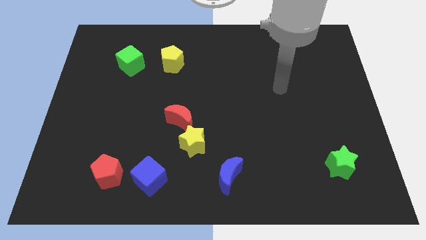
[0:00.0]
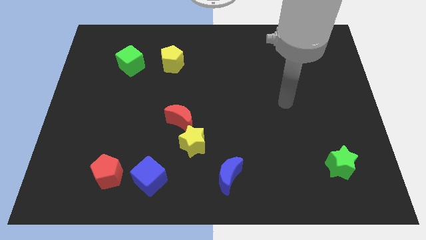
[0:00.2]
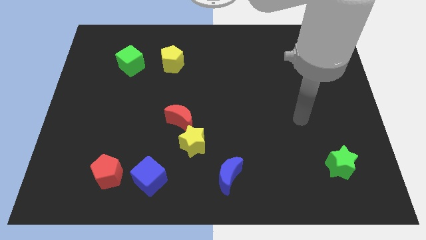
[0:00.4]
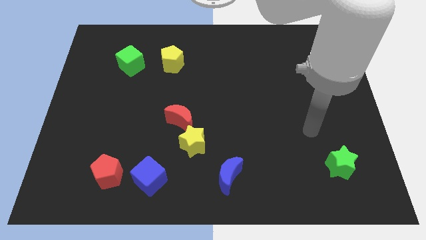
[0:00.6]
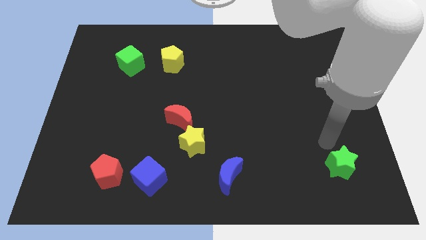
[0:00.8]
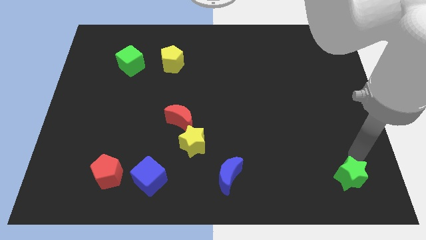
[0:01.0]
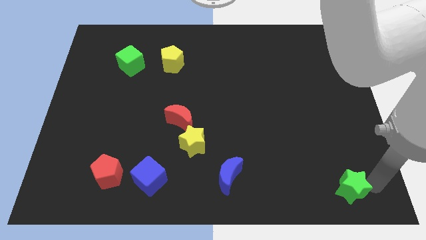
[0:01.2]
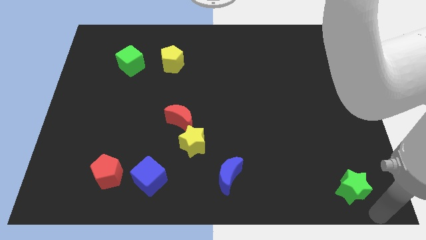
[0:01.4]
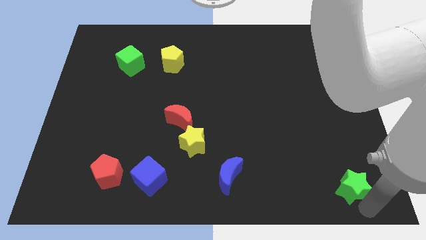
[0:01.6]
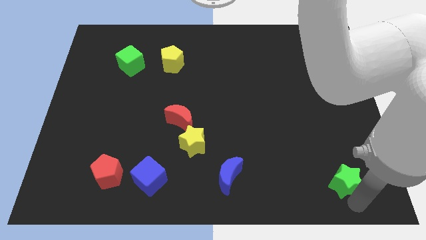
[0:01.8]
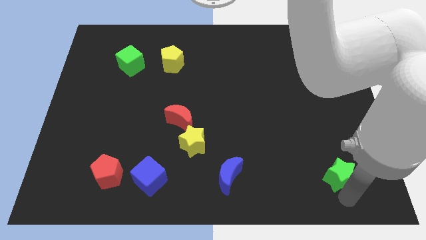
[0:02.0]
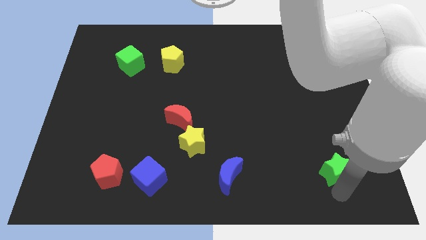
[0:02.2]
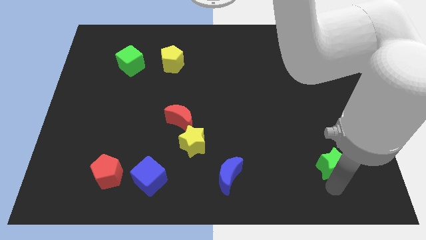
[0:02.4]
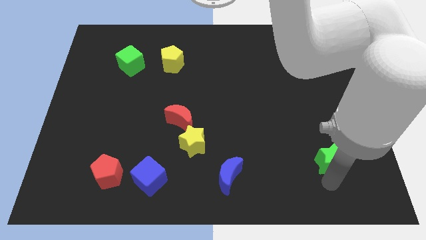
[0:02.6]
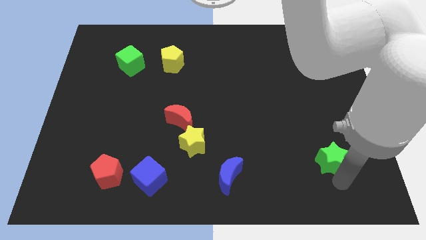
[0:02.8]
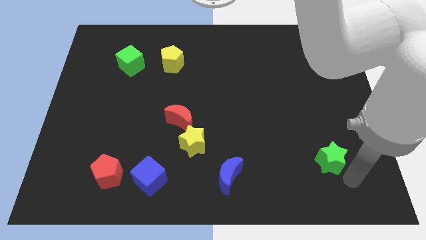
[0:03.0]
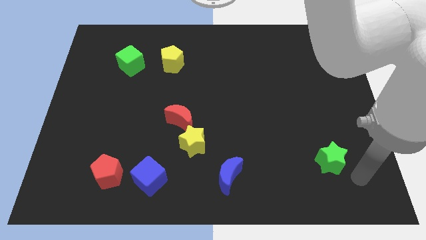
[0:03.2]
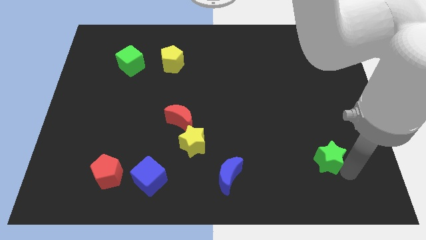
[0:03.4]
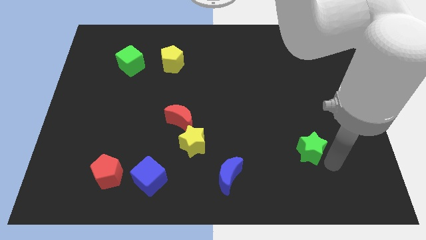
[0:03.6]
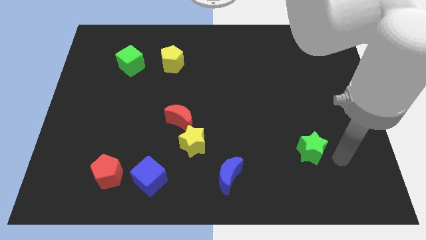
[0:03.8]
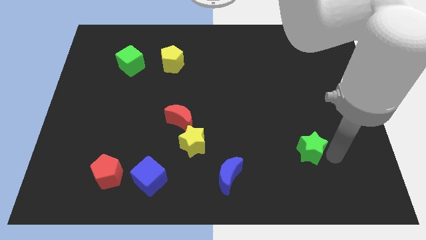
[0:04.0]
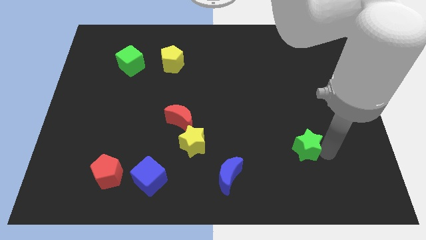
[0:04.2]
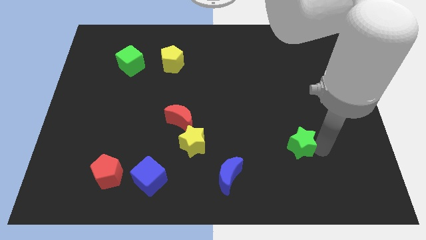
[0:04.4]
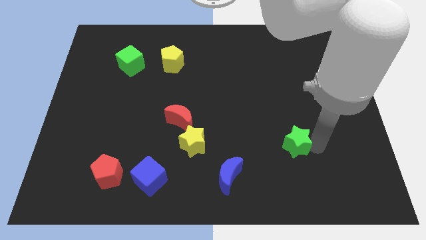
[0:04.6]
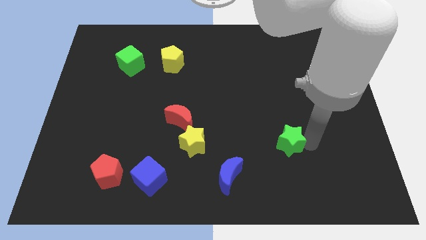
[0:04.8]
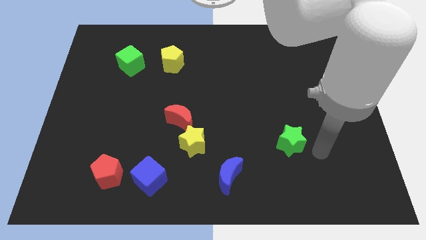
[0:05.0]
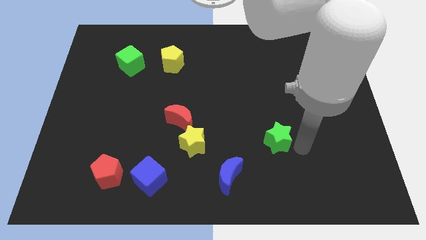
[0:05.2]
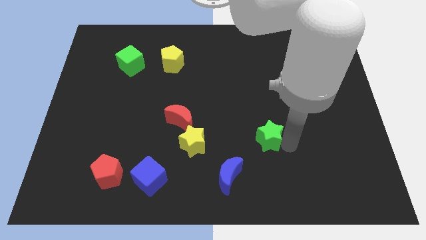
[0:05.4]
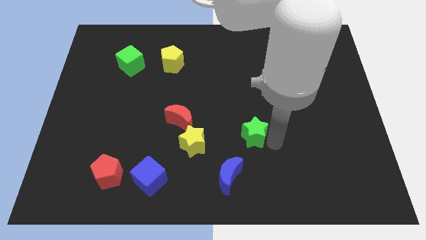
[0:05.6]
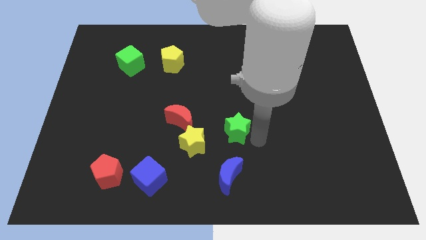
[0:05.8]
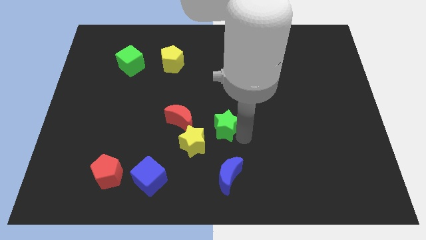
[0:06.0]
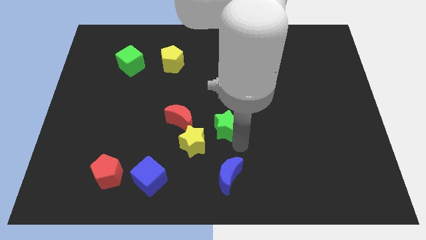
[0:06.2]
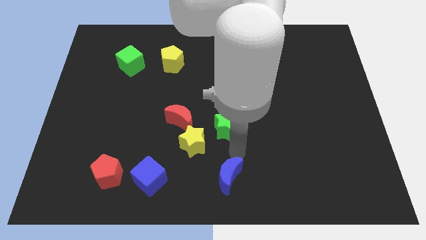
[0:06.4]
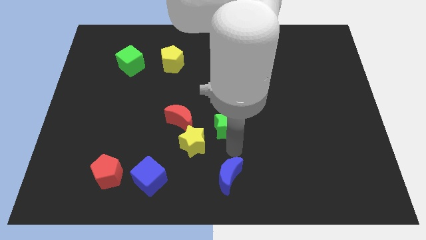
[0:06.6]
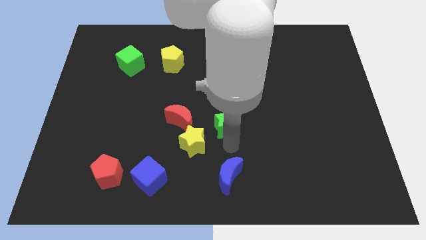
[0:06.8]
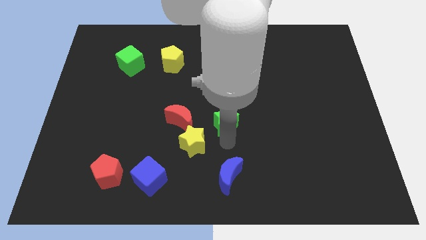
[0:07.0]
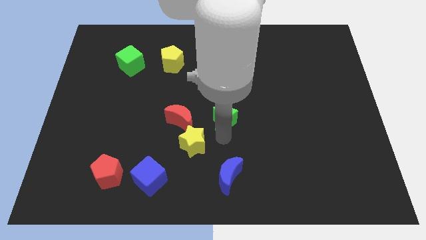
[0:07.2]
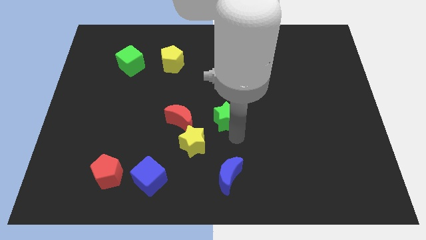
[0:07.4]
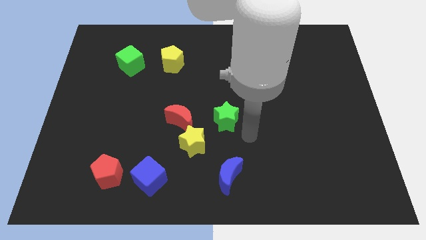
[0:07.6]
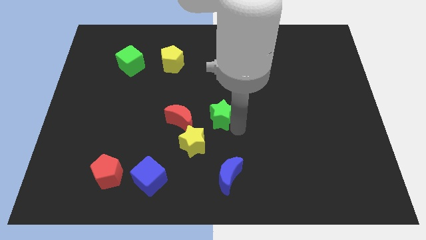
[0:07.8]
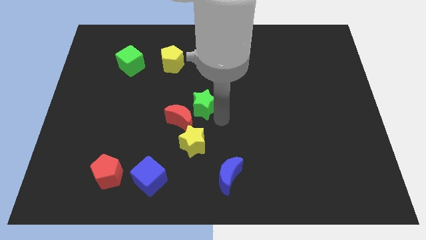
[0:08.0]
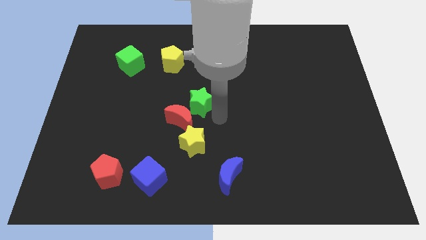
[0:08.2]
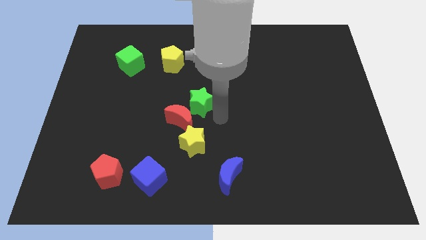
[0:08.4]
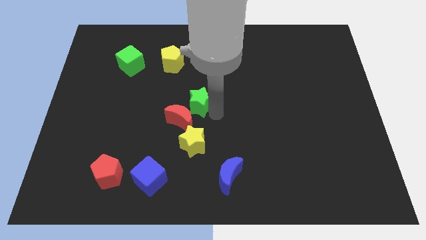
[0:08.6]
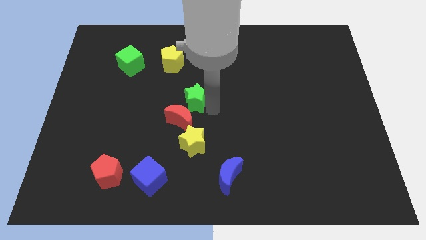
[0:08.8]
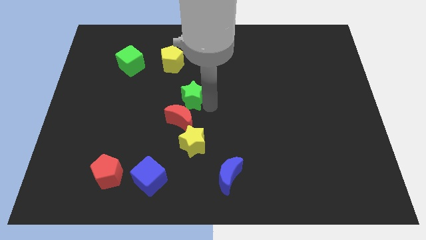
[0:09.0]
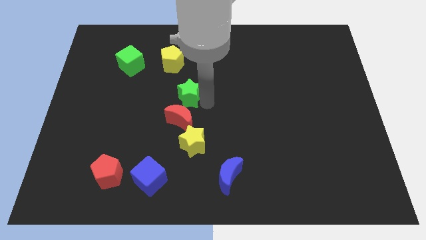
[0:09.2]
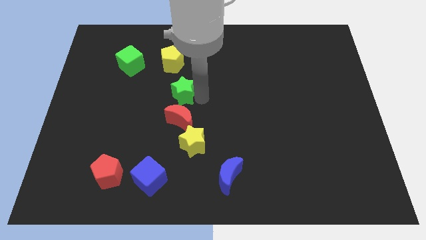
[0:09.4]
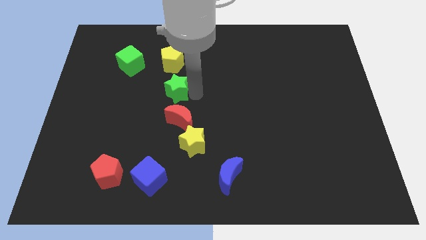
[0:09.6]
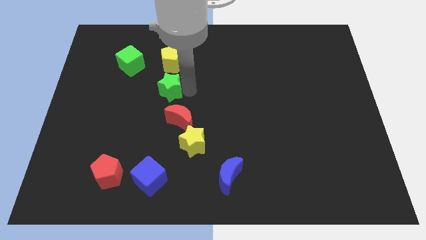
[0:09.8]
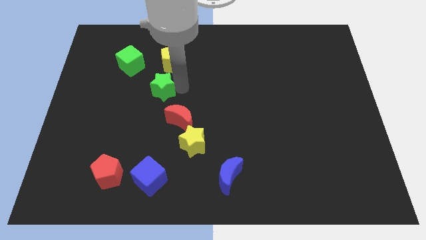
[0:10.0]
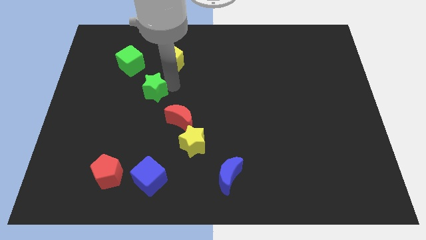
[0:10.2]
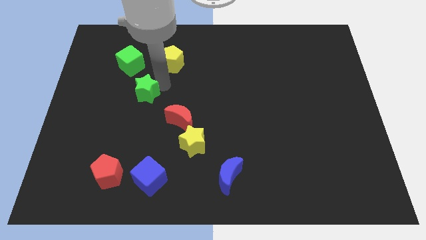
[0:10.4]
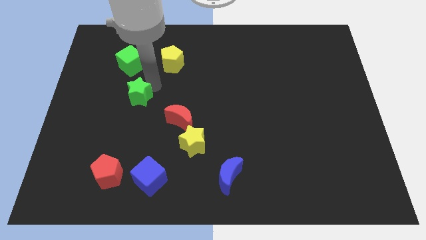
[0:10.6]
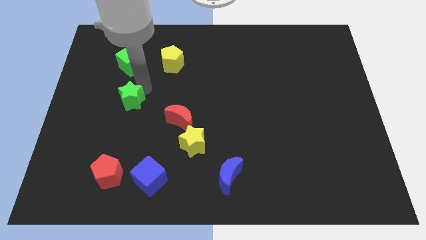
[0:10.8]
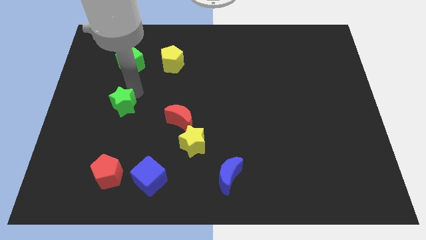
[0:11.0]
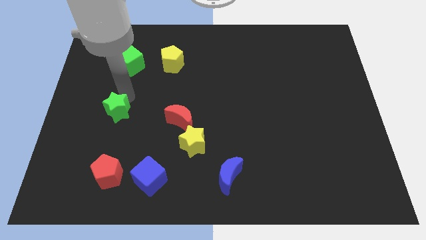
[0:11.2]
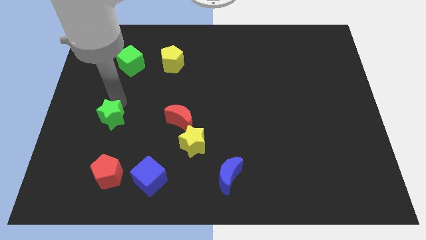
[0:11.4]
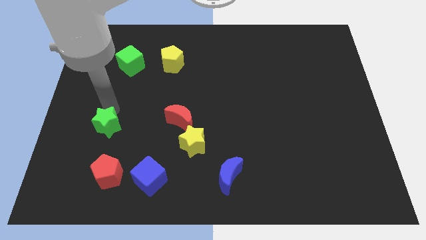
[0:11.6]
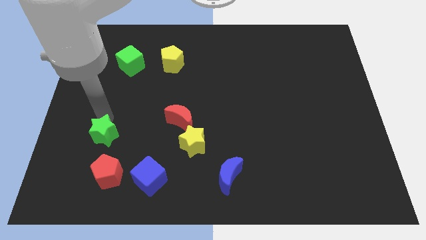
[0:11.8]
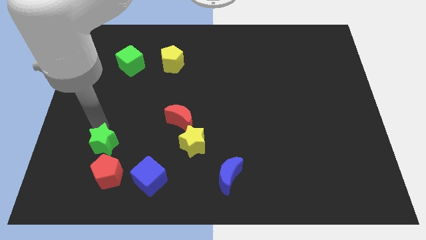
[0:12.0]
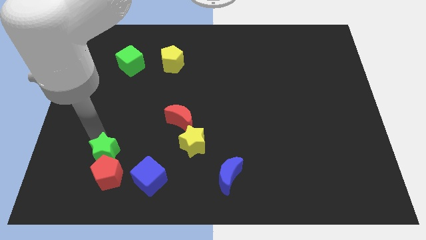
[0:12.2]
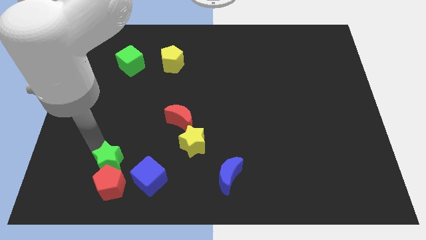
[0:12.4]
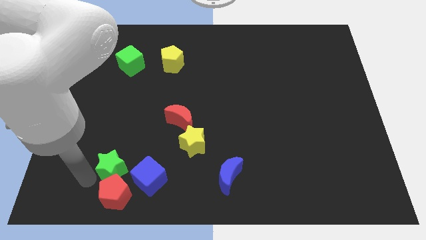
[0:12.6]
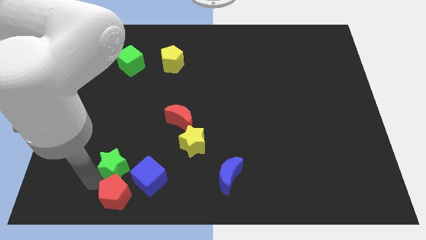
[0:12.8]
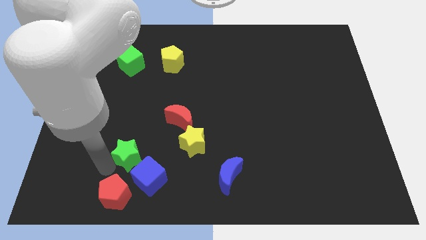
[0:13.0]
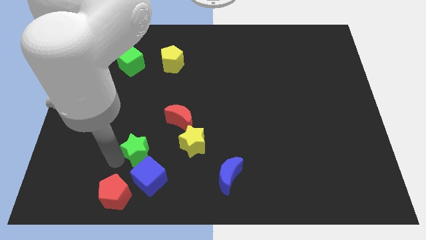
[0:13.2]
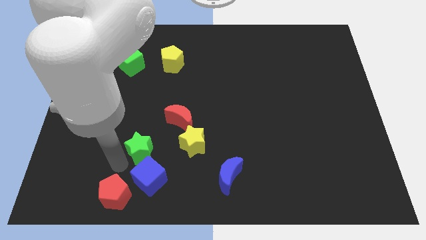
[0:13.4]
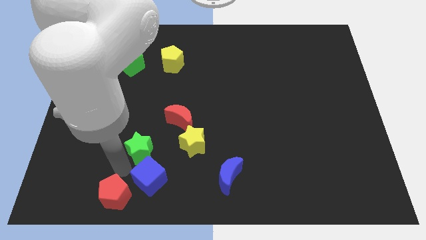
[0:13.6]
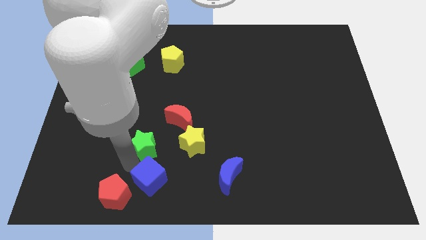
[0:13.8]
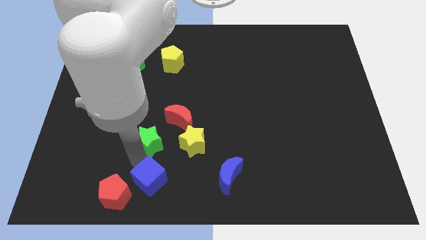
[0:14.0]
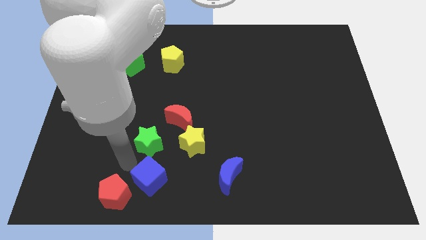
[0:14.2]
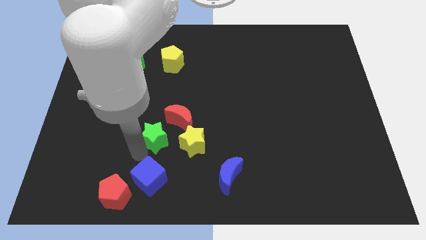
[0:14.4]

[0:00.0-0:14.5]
move the green star to the top left of the yellow star
